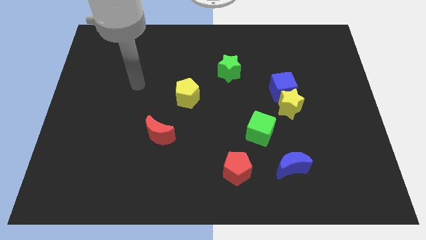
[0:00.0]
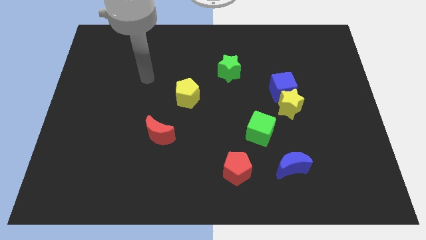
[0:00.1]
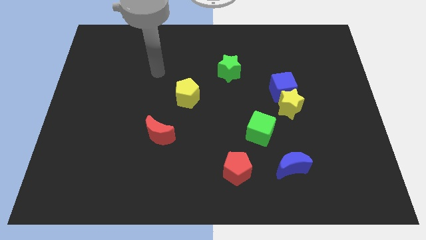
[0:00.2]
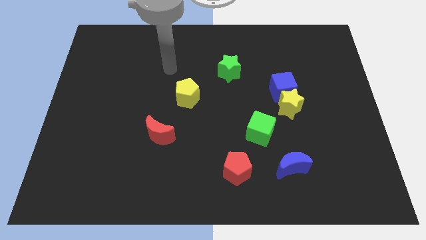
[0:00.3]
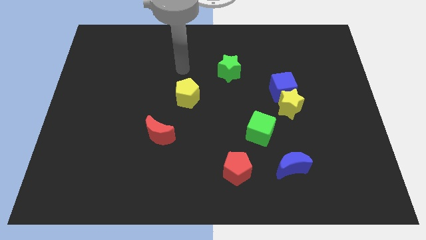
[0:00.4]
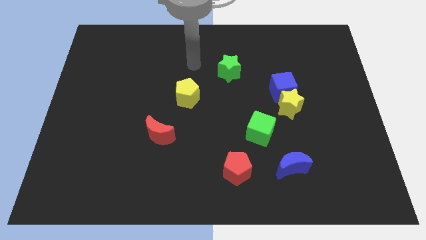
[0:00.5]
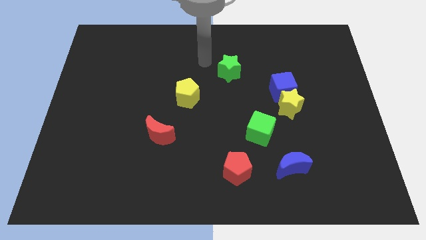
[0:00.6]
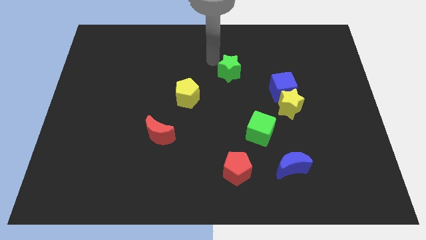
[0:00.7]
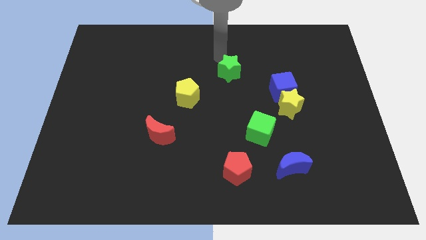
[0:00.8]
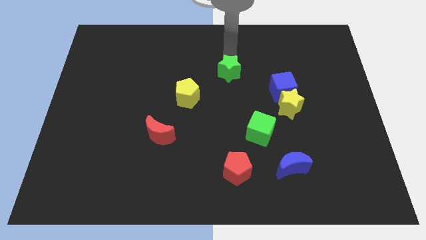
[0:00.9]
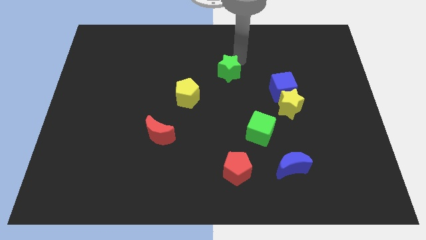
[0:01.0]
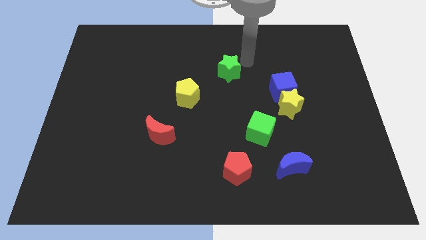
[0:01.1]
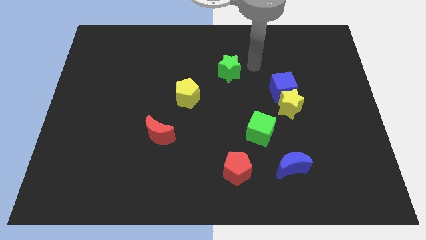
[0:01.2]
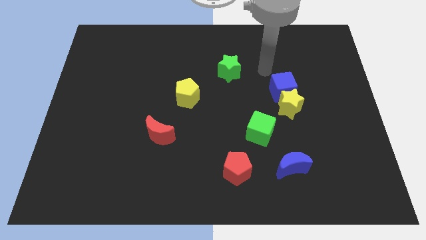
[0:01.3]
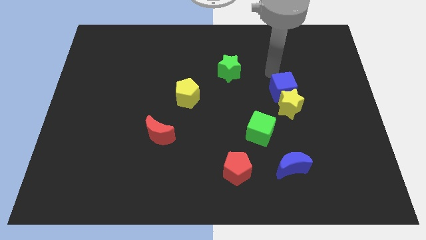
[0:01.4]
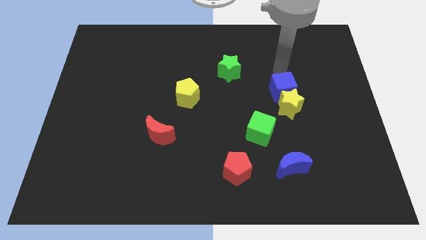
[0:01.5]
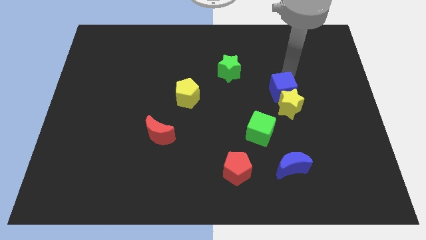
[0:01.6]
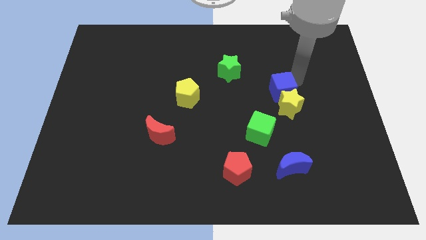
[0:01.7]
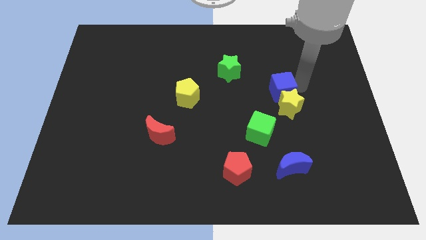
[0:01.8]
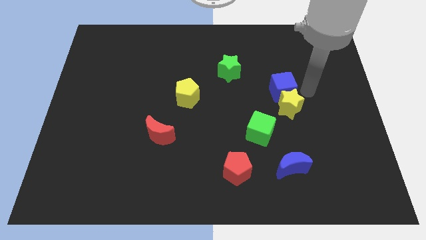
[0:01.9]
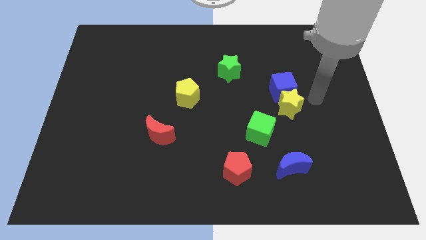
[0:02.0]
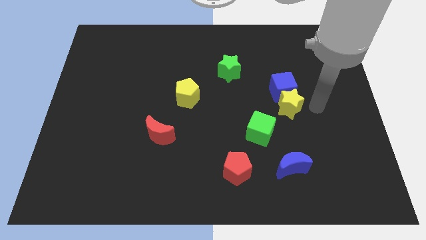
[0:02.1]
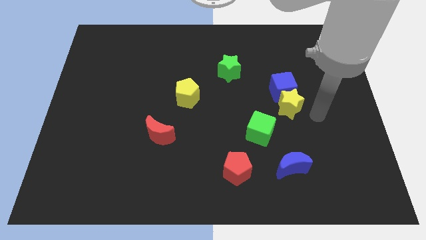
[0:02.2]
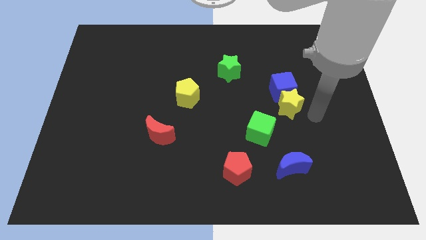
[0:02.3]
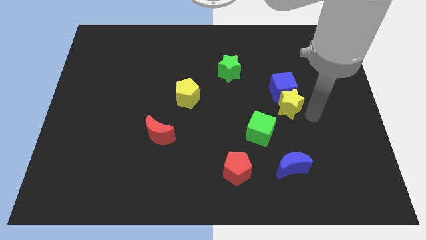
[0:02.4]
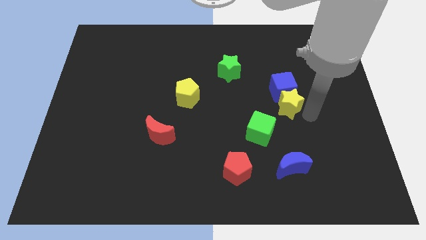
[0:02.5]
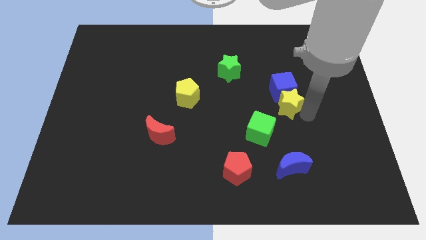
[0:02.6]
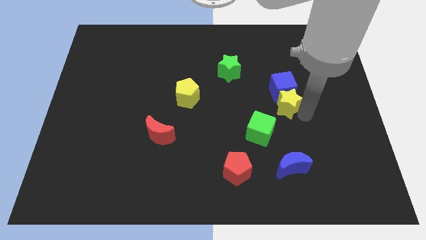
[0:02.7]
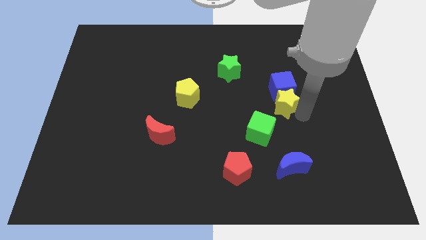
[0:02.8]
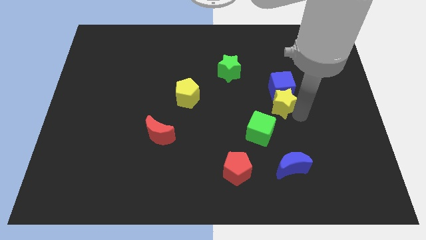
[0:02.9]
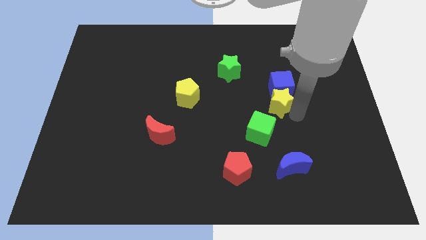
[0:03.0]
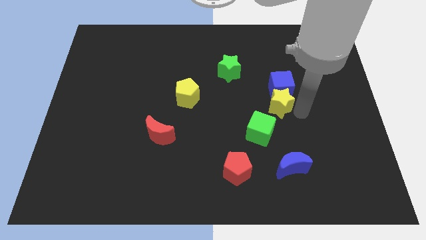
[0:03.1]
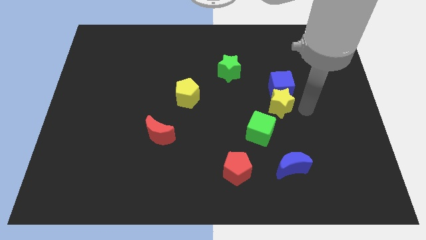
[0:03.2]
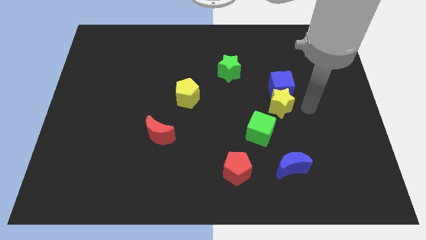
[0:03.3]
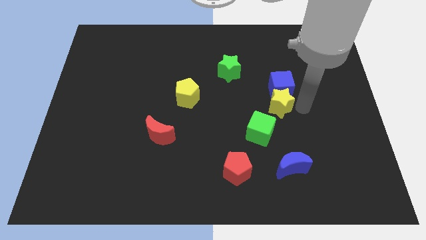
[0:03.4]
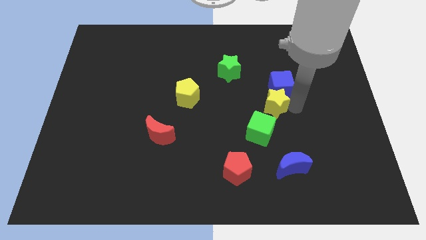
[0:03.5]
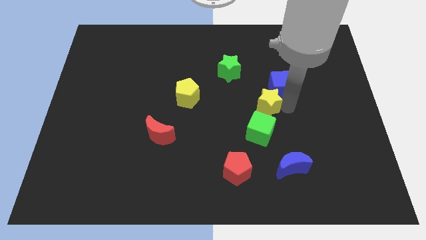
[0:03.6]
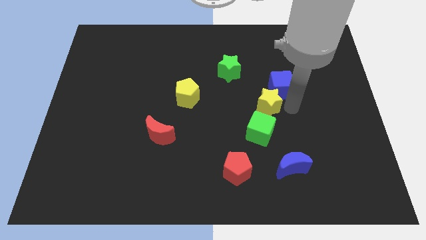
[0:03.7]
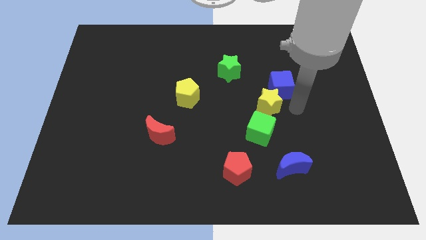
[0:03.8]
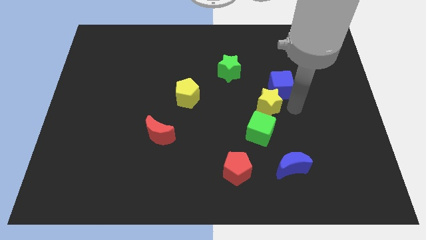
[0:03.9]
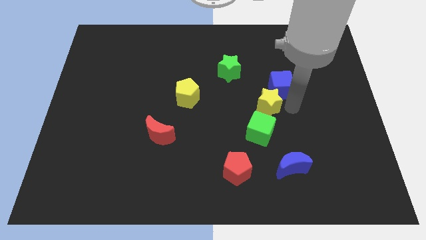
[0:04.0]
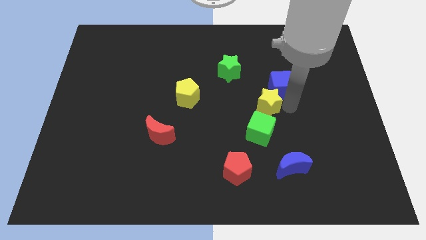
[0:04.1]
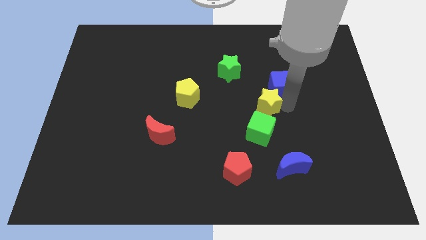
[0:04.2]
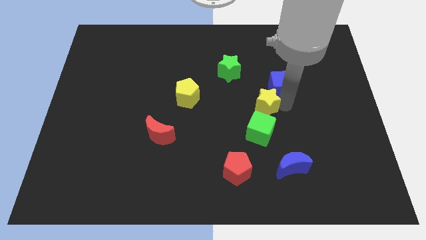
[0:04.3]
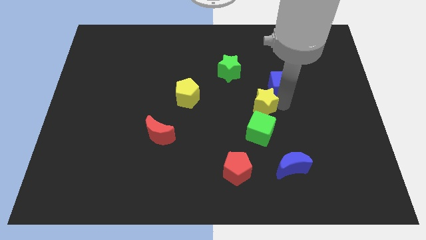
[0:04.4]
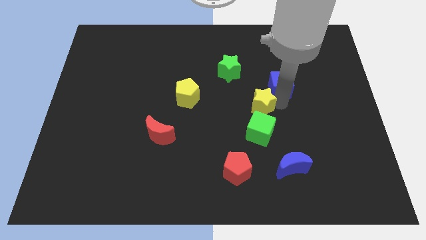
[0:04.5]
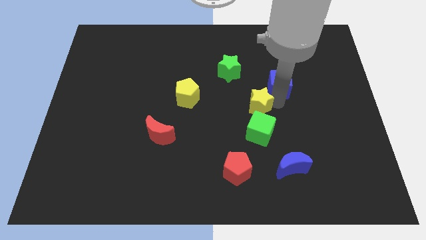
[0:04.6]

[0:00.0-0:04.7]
push the yellow star slightly to the left

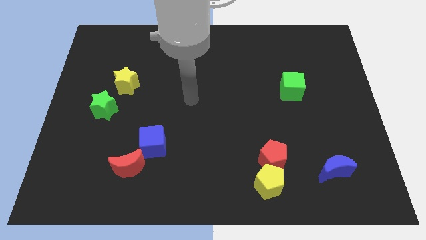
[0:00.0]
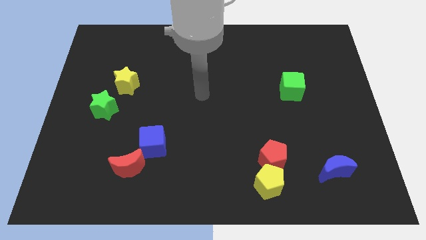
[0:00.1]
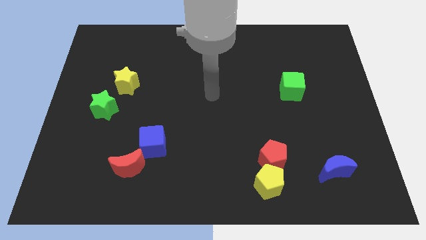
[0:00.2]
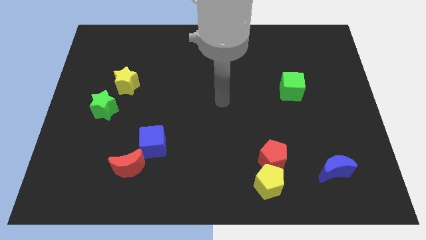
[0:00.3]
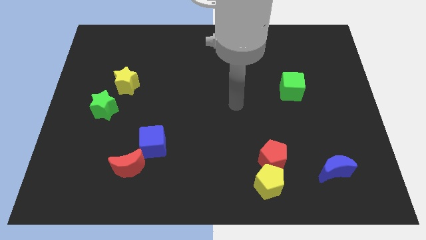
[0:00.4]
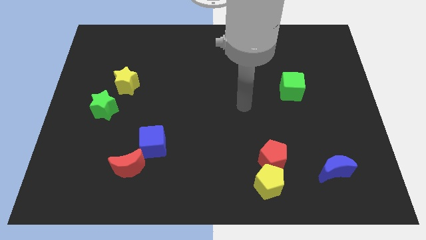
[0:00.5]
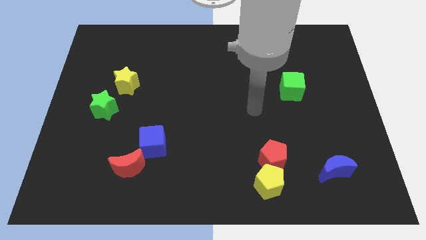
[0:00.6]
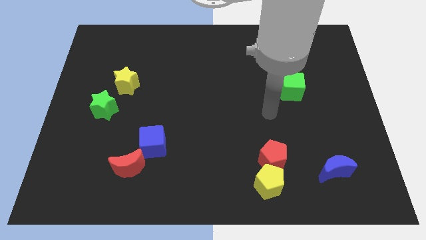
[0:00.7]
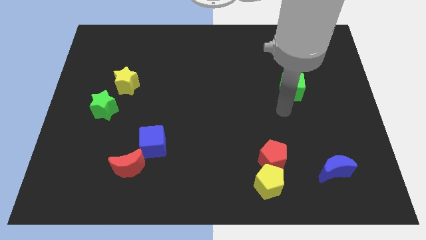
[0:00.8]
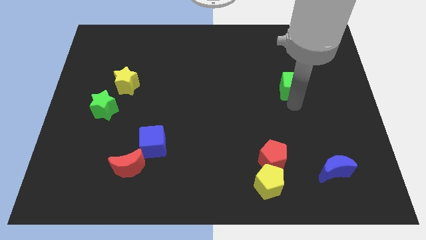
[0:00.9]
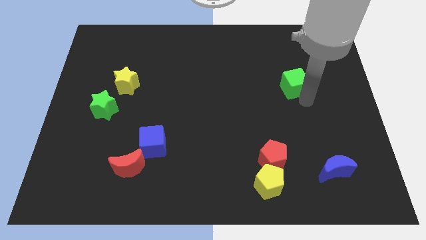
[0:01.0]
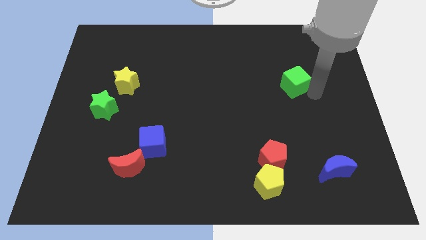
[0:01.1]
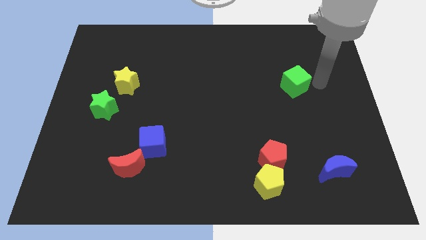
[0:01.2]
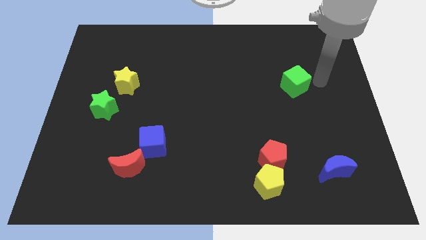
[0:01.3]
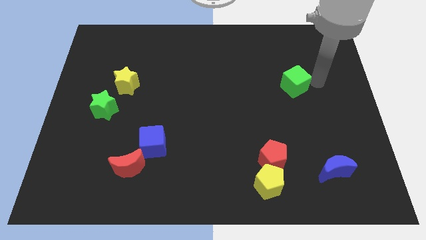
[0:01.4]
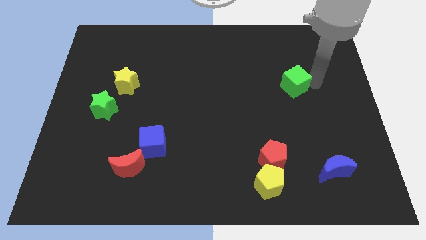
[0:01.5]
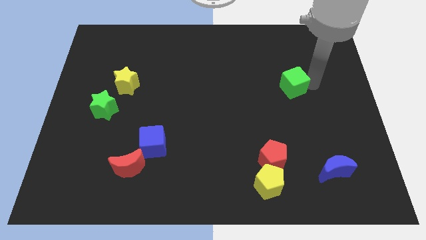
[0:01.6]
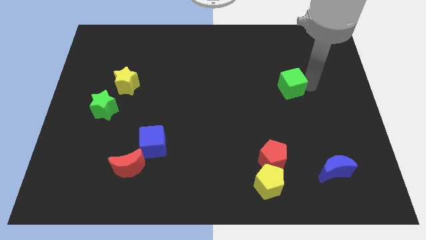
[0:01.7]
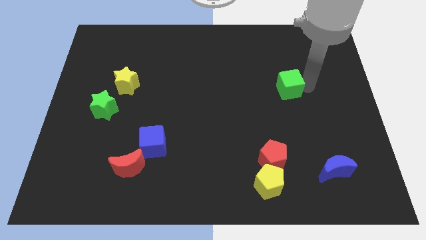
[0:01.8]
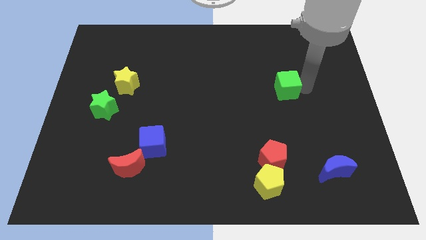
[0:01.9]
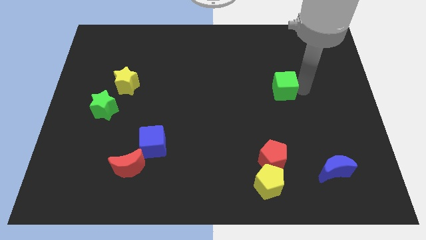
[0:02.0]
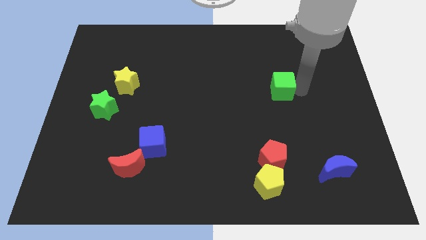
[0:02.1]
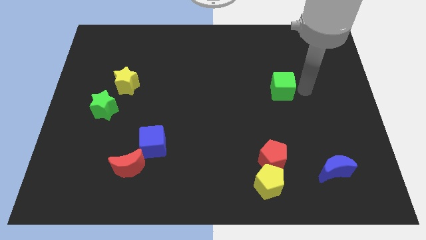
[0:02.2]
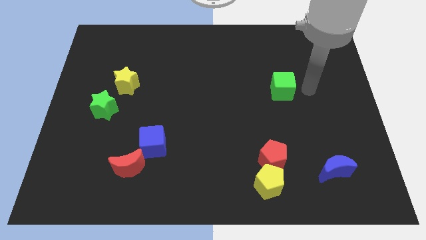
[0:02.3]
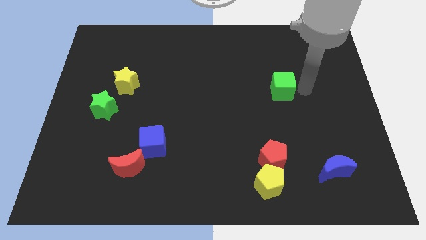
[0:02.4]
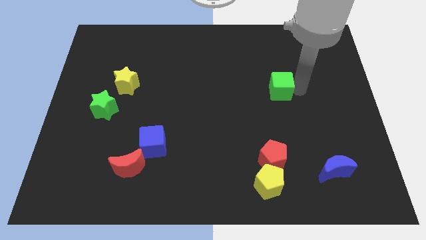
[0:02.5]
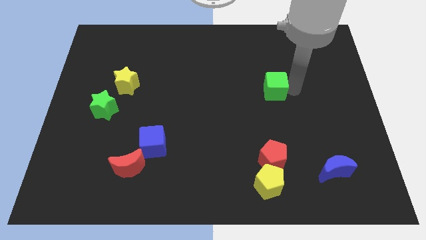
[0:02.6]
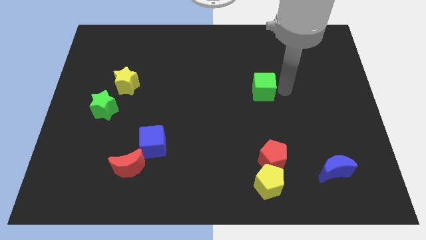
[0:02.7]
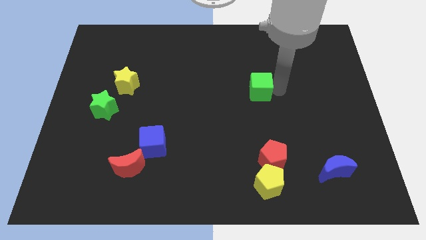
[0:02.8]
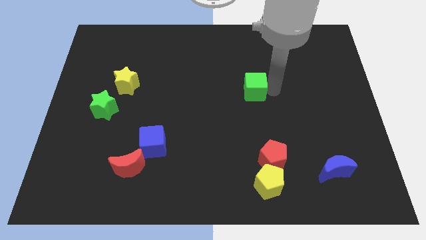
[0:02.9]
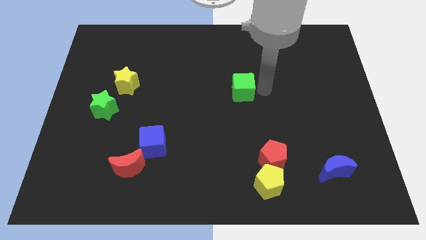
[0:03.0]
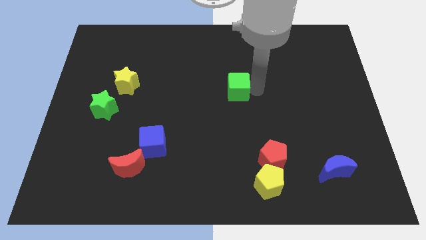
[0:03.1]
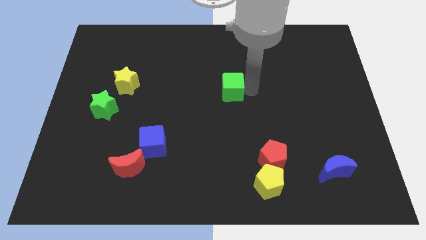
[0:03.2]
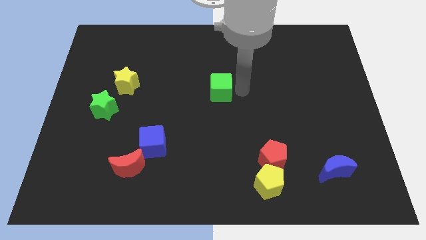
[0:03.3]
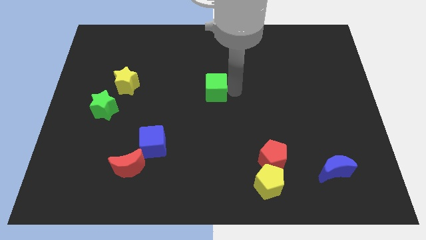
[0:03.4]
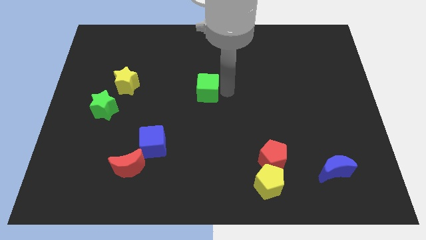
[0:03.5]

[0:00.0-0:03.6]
slide the green cube left

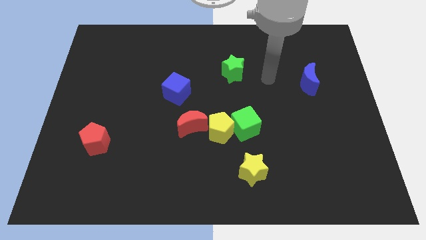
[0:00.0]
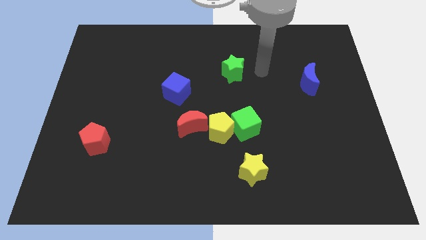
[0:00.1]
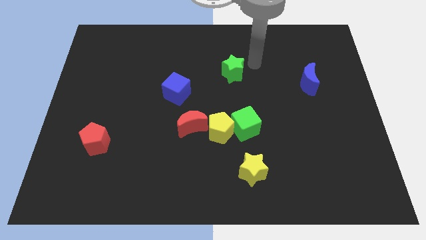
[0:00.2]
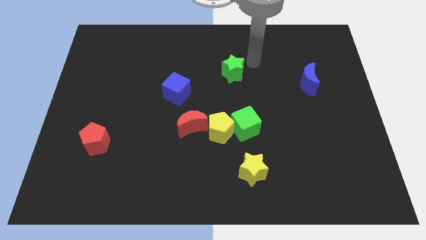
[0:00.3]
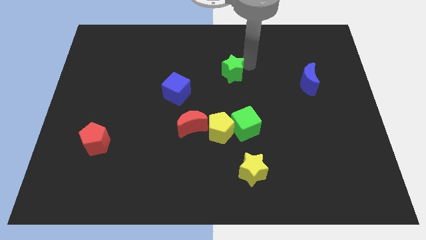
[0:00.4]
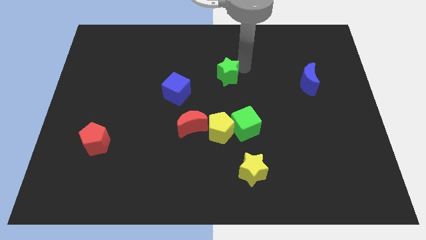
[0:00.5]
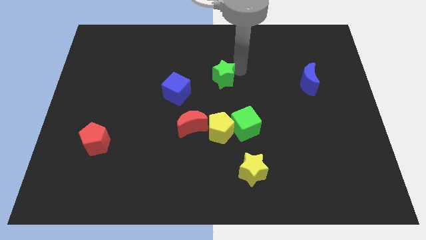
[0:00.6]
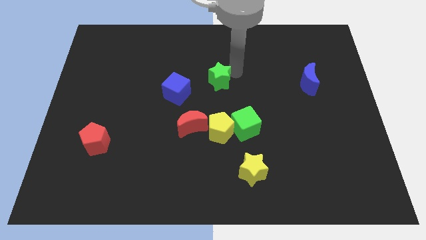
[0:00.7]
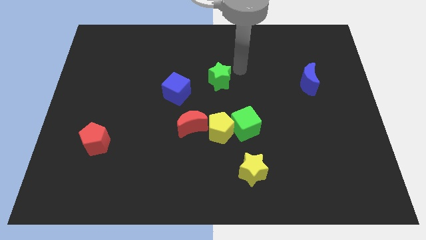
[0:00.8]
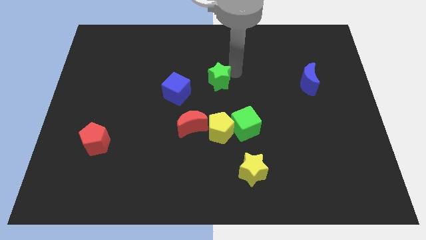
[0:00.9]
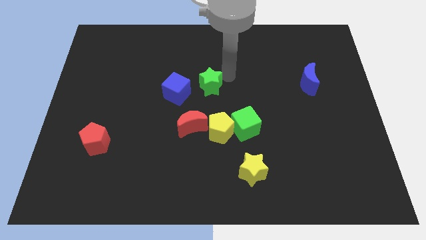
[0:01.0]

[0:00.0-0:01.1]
move the green star diagonally down and to the left a bit
